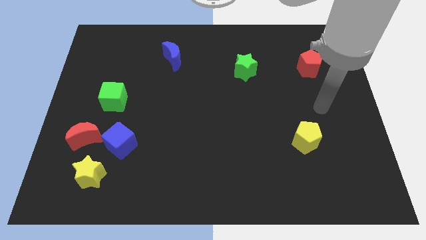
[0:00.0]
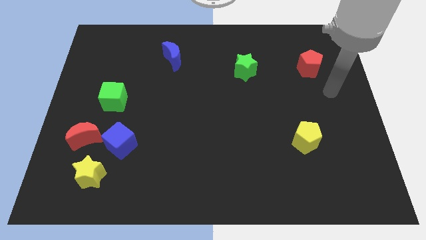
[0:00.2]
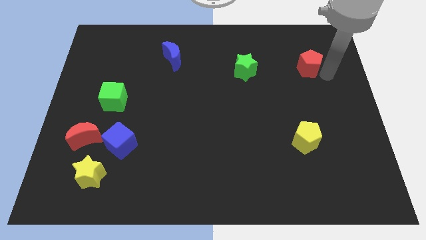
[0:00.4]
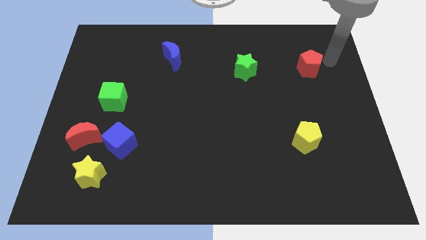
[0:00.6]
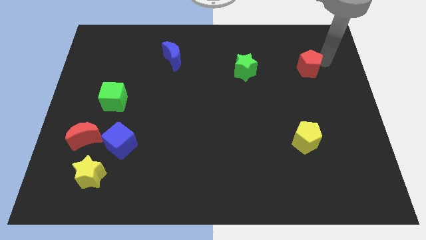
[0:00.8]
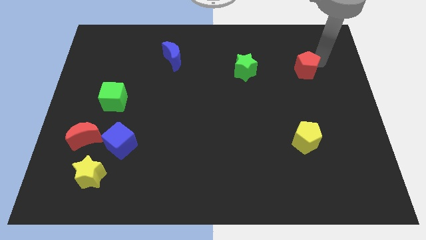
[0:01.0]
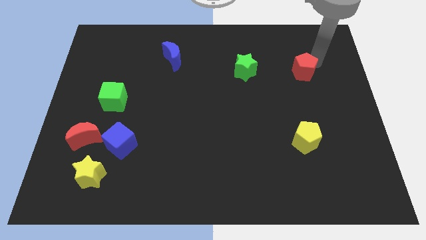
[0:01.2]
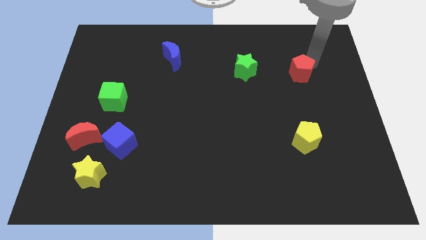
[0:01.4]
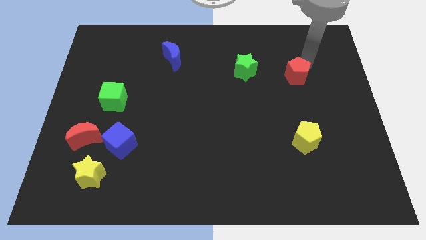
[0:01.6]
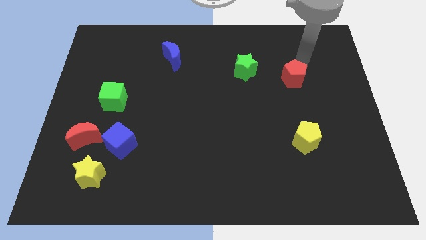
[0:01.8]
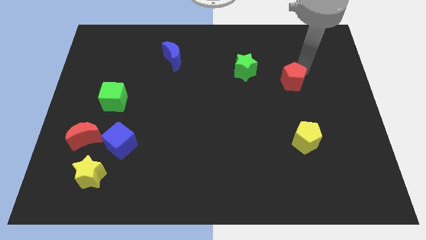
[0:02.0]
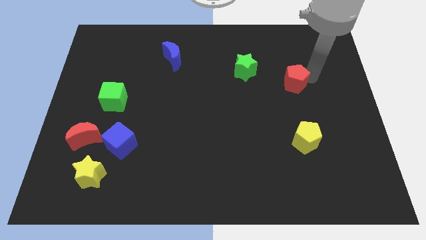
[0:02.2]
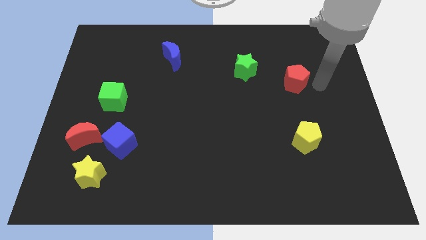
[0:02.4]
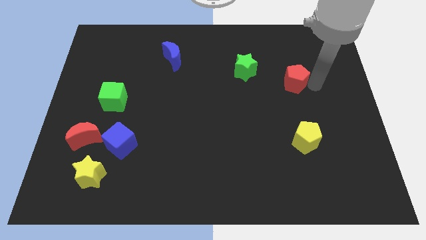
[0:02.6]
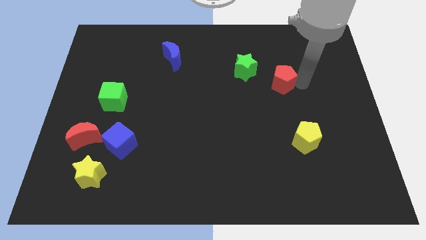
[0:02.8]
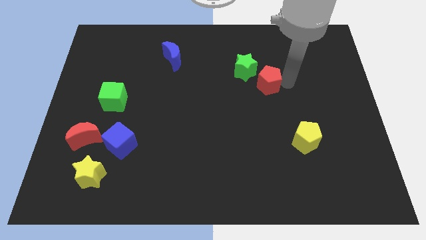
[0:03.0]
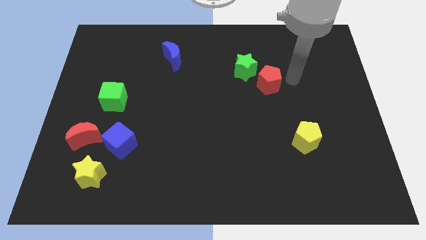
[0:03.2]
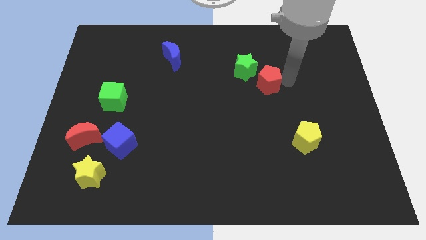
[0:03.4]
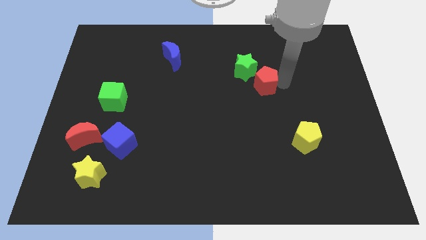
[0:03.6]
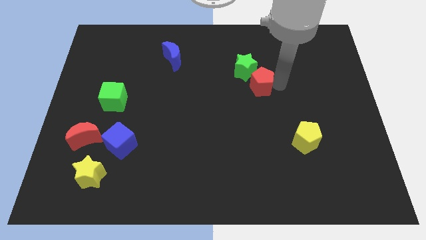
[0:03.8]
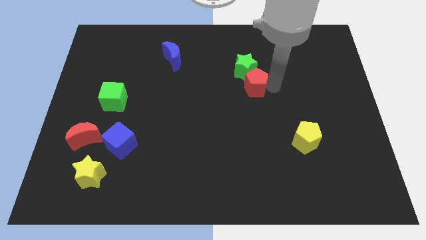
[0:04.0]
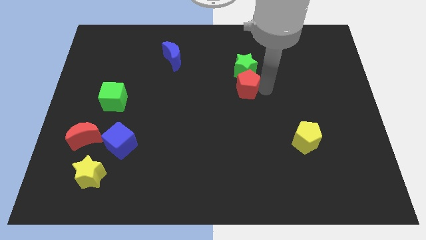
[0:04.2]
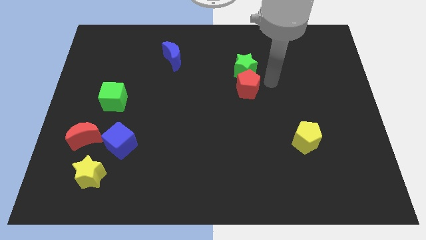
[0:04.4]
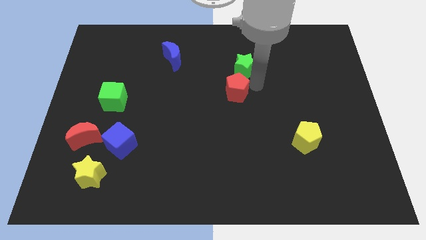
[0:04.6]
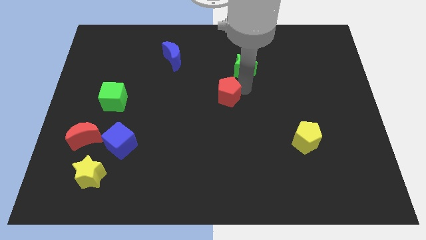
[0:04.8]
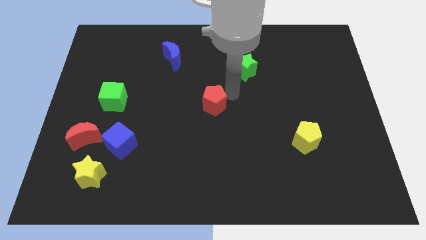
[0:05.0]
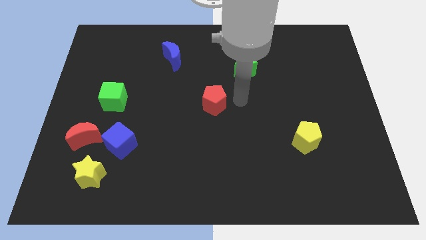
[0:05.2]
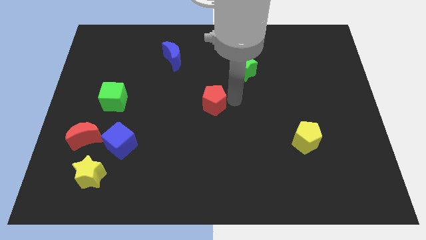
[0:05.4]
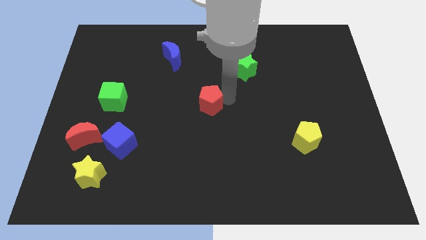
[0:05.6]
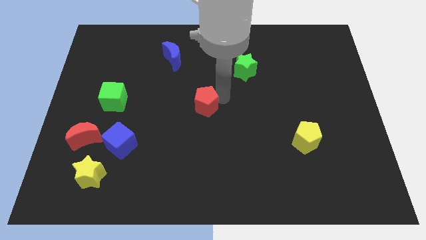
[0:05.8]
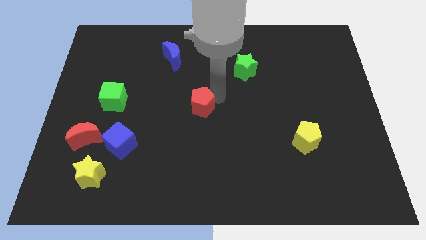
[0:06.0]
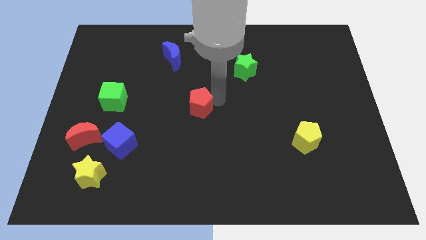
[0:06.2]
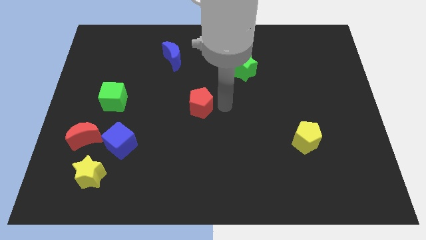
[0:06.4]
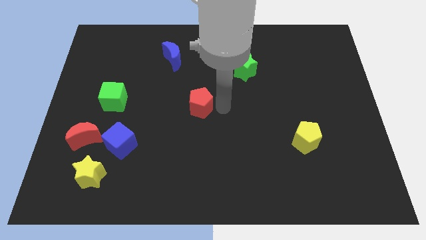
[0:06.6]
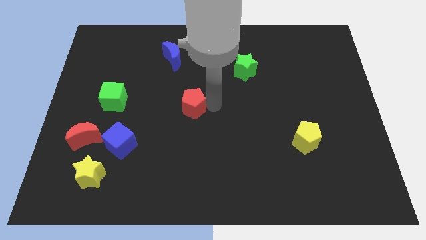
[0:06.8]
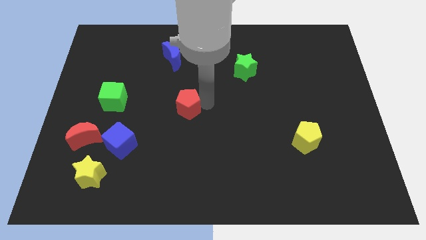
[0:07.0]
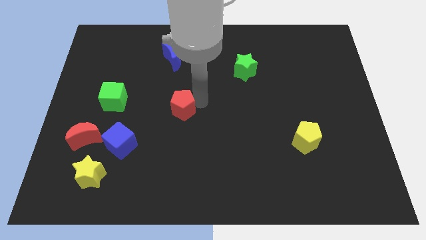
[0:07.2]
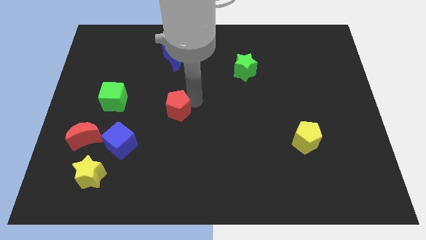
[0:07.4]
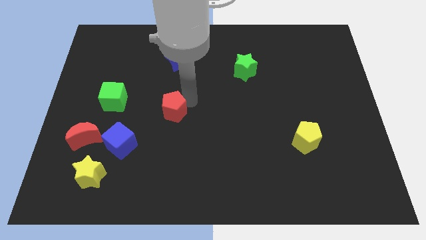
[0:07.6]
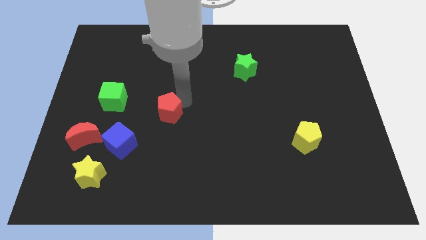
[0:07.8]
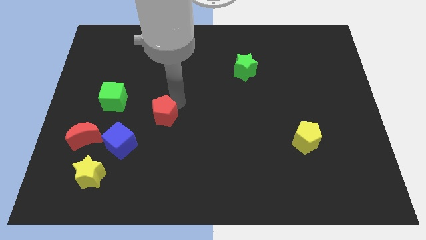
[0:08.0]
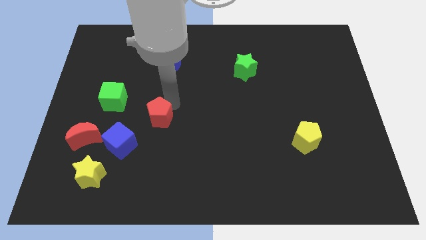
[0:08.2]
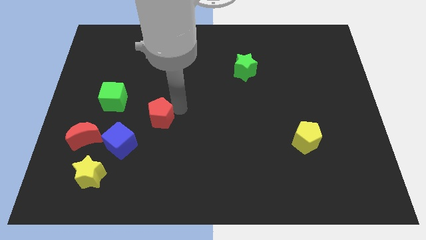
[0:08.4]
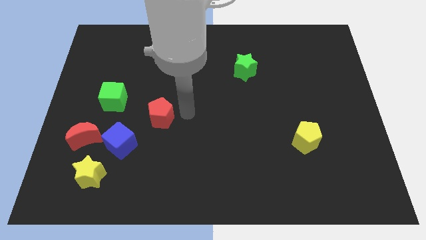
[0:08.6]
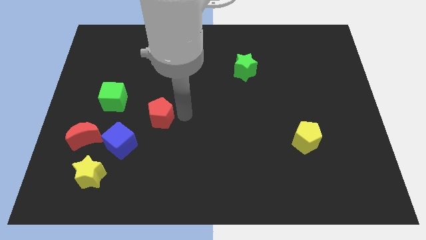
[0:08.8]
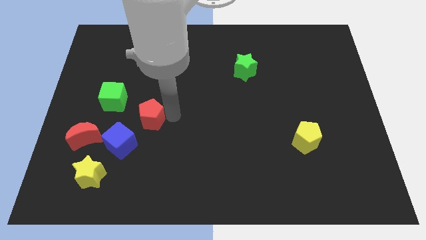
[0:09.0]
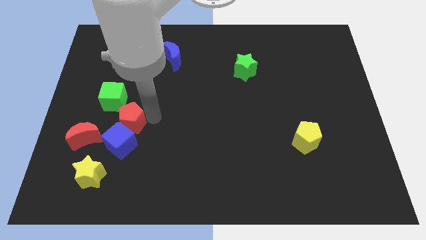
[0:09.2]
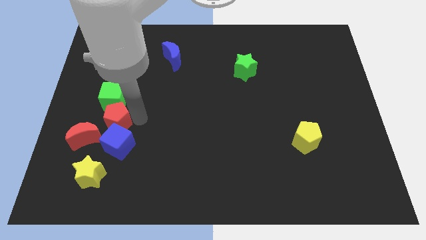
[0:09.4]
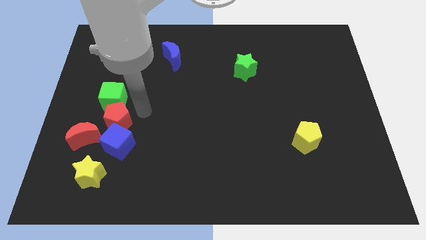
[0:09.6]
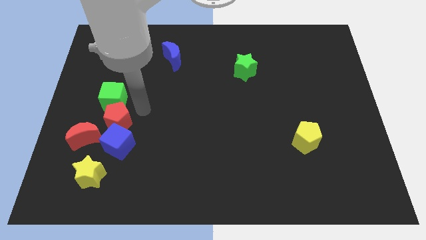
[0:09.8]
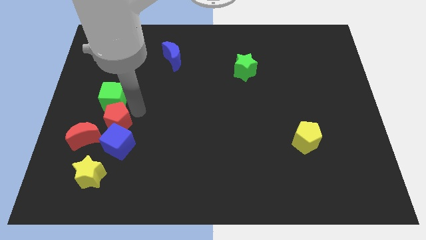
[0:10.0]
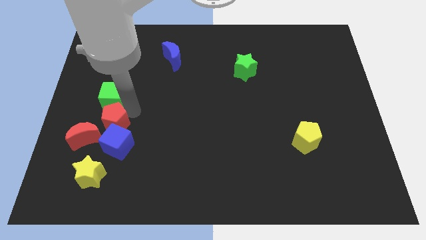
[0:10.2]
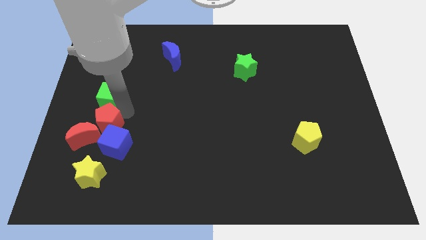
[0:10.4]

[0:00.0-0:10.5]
put the red pentagon close to the red moon

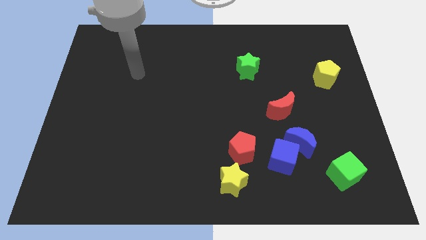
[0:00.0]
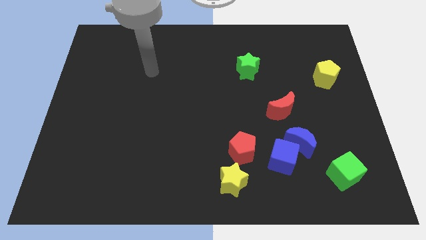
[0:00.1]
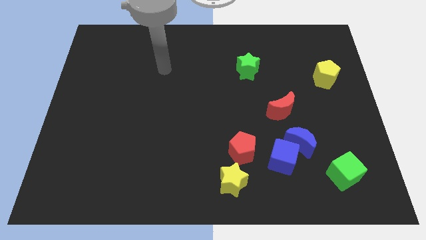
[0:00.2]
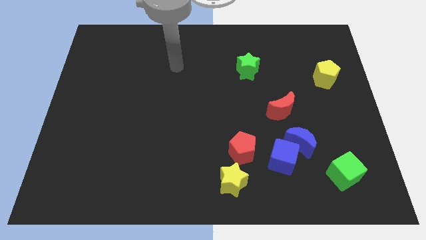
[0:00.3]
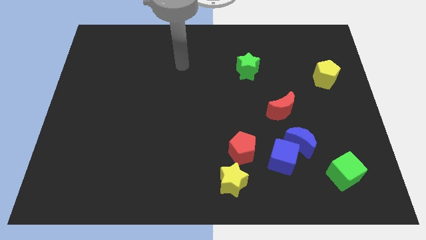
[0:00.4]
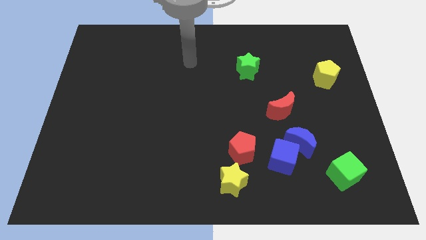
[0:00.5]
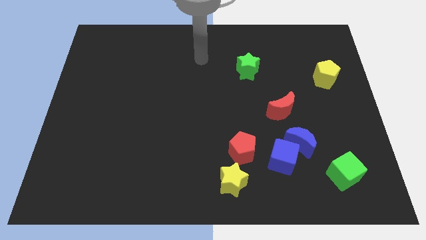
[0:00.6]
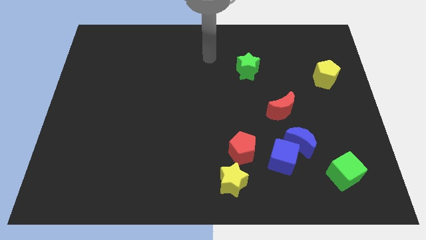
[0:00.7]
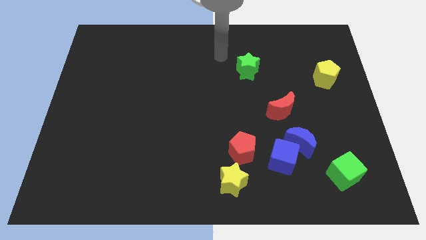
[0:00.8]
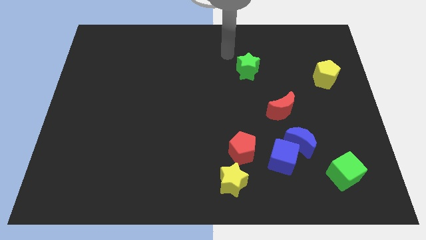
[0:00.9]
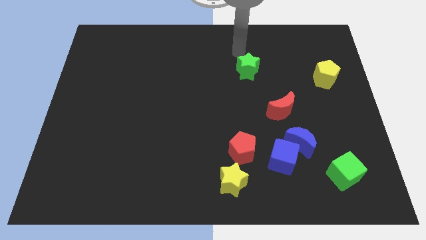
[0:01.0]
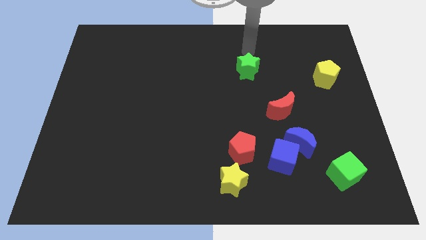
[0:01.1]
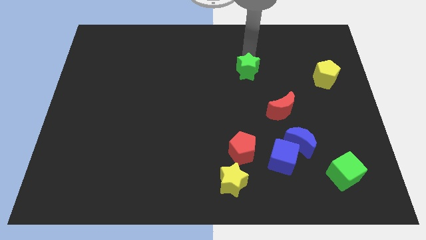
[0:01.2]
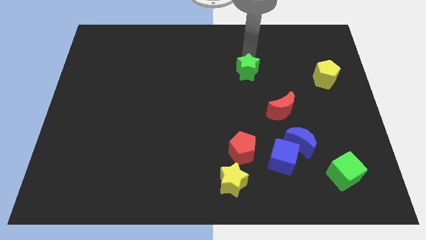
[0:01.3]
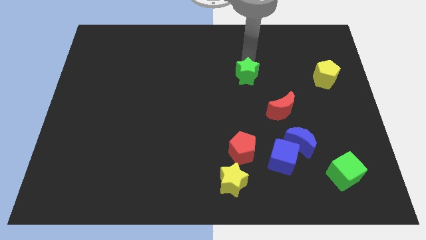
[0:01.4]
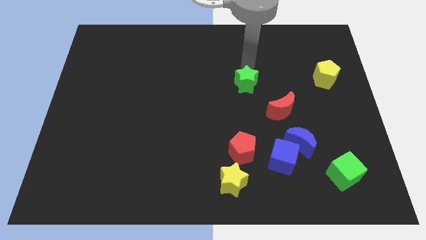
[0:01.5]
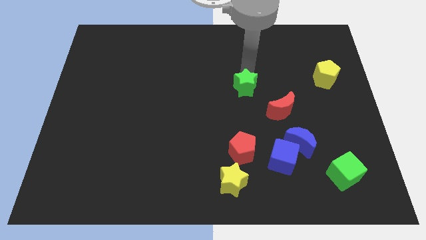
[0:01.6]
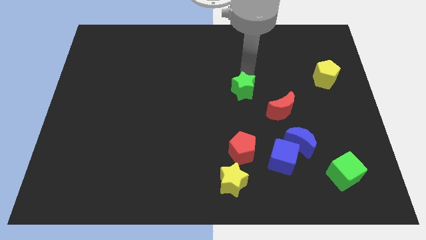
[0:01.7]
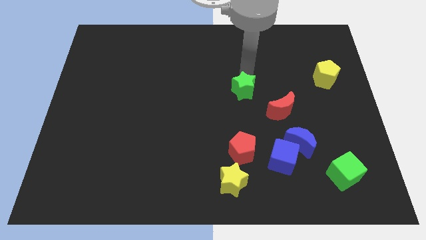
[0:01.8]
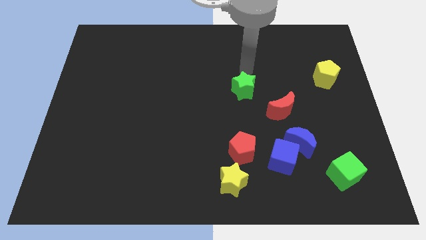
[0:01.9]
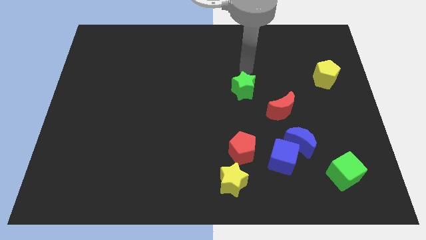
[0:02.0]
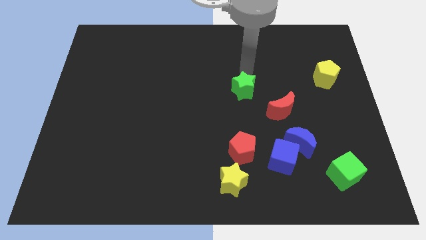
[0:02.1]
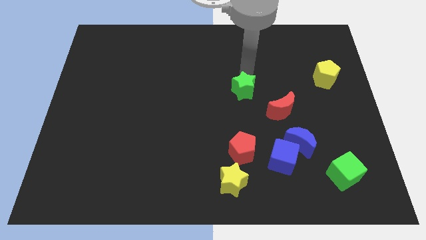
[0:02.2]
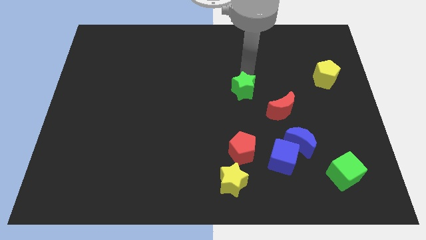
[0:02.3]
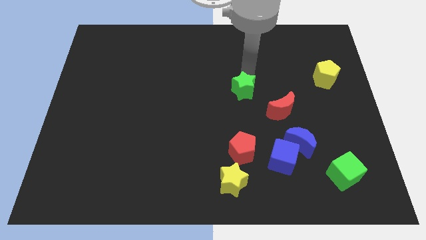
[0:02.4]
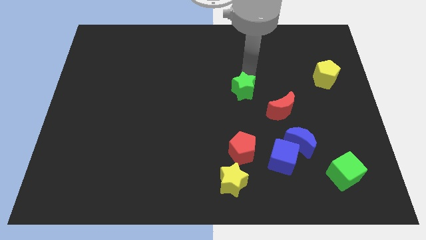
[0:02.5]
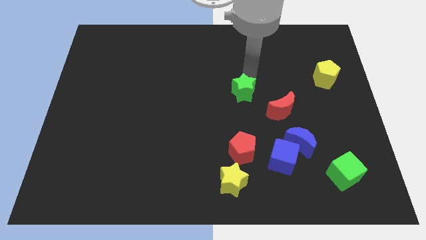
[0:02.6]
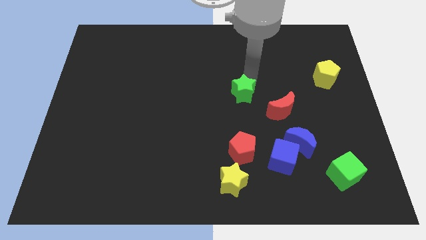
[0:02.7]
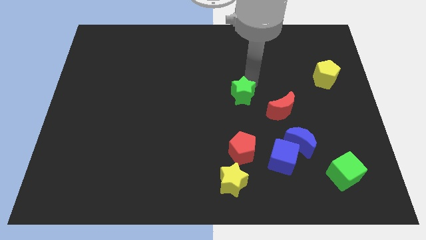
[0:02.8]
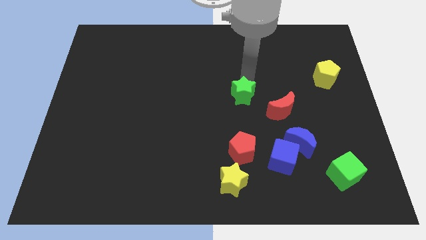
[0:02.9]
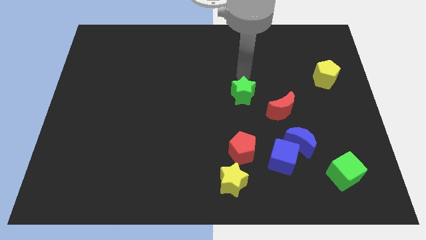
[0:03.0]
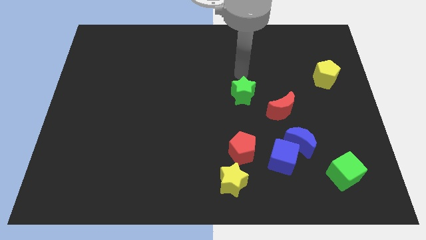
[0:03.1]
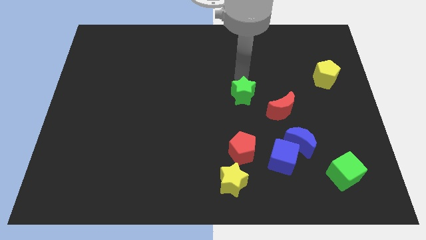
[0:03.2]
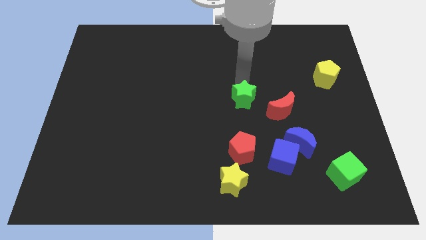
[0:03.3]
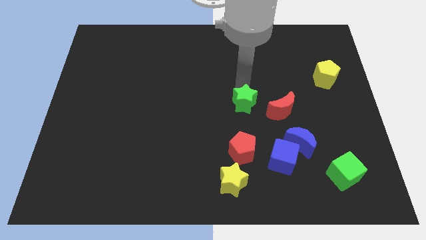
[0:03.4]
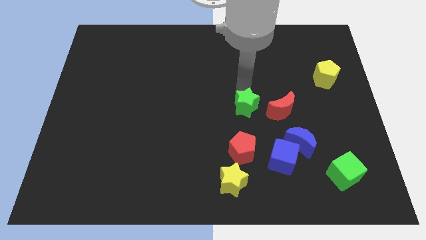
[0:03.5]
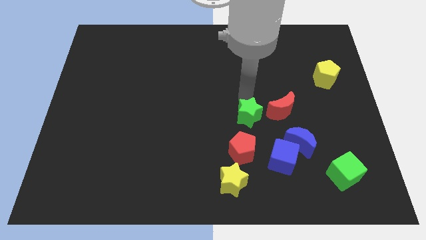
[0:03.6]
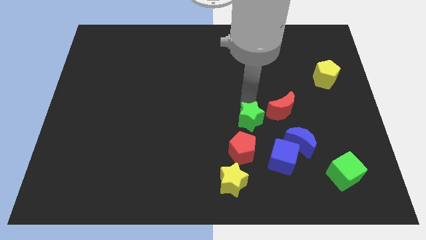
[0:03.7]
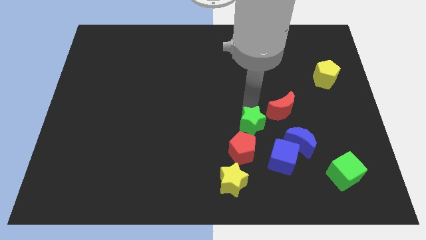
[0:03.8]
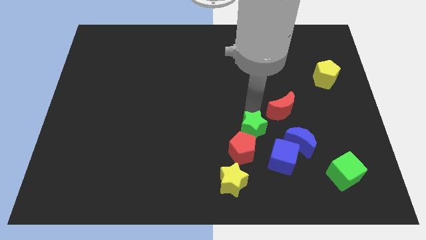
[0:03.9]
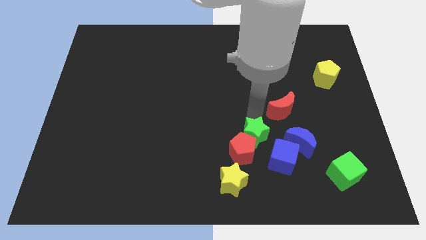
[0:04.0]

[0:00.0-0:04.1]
push the green star close to the red pentagon
